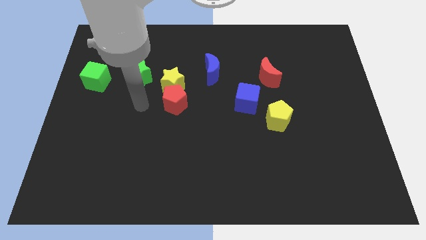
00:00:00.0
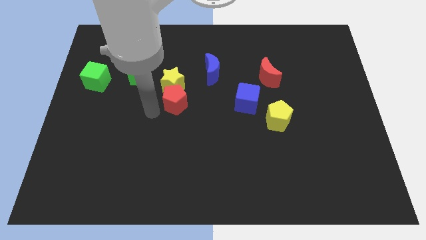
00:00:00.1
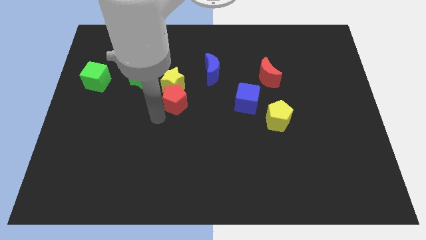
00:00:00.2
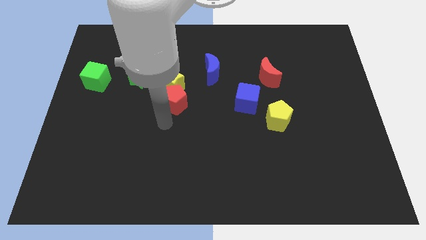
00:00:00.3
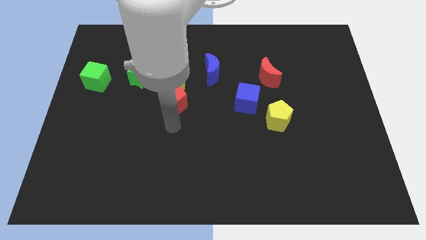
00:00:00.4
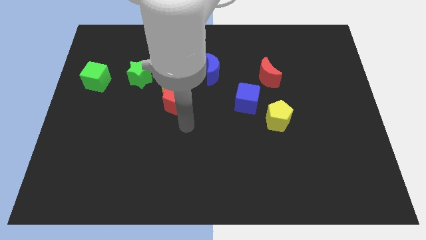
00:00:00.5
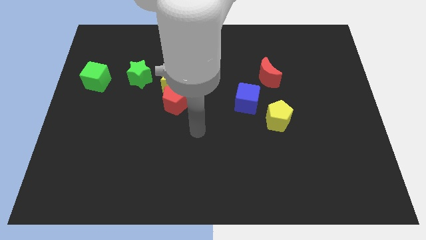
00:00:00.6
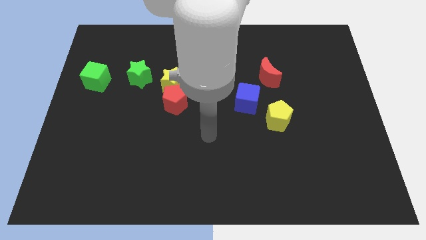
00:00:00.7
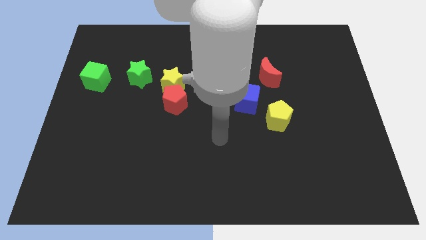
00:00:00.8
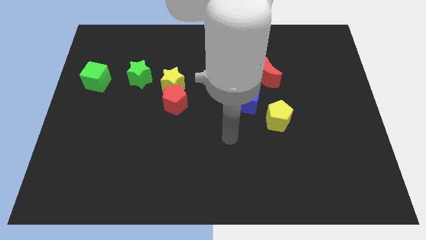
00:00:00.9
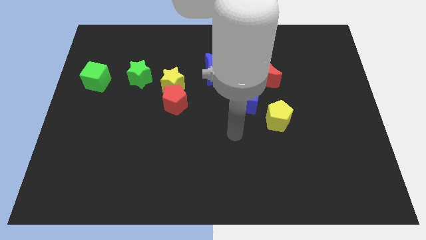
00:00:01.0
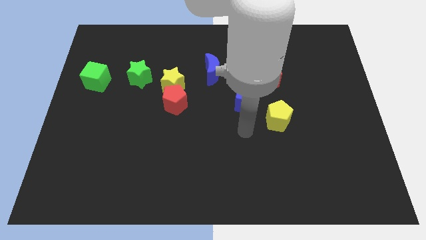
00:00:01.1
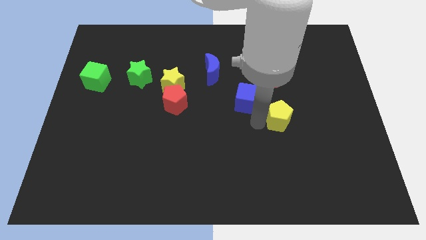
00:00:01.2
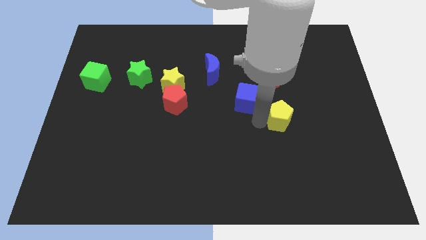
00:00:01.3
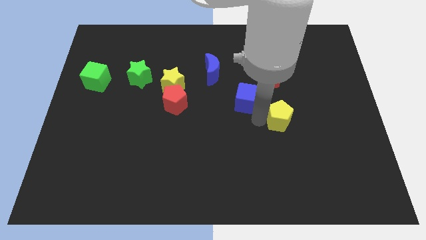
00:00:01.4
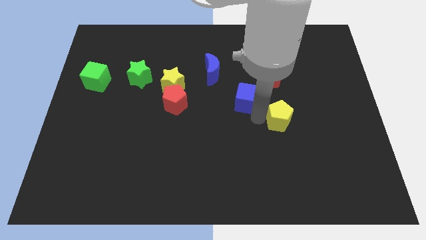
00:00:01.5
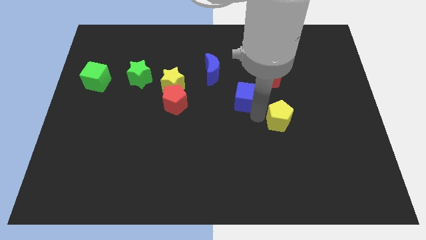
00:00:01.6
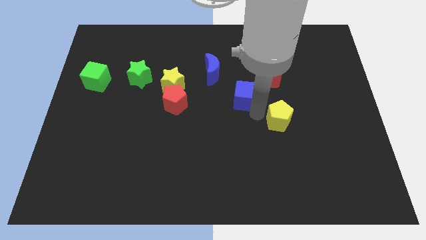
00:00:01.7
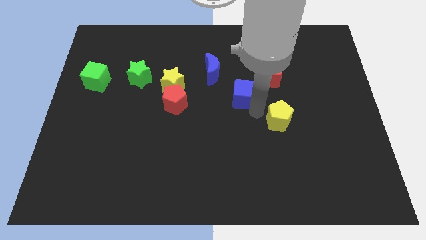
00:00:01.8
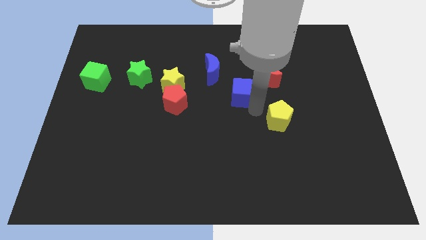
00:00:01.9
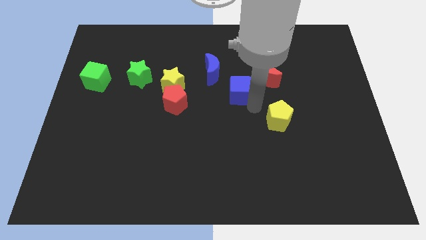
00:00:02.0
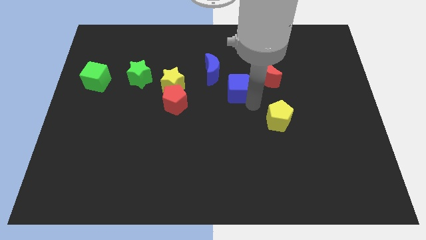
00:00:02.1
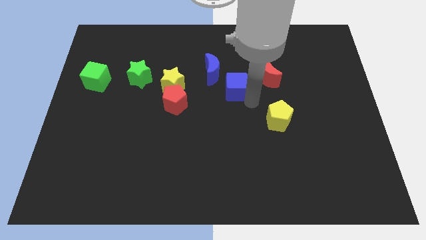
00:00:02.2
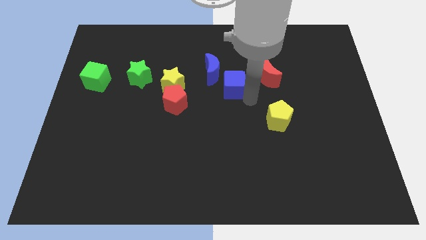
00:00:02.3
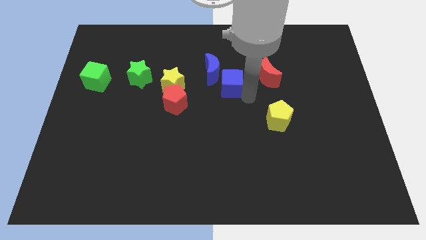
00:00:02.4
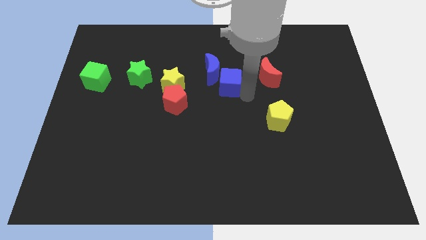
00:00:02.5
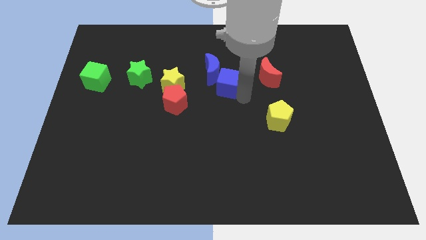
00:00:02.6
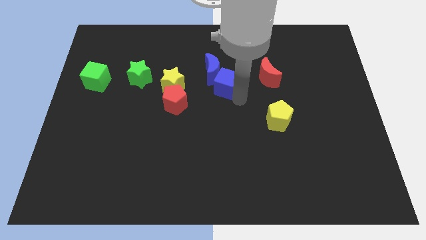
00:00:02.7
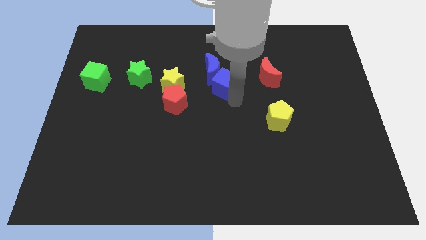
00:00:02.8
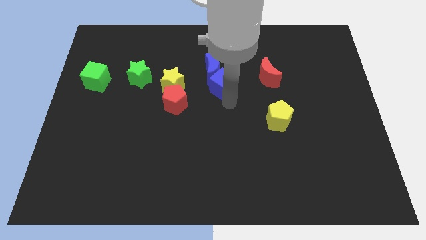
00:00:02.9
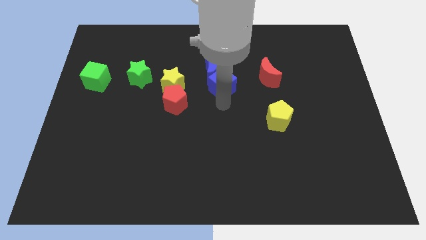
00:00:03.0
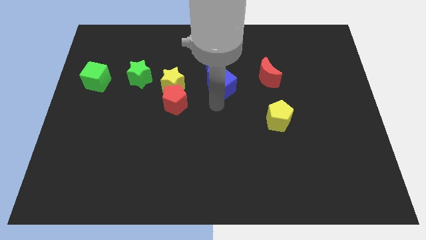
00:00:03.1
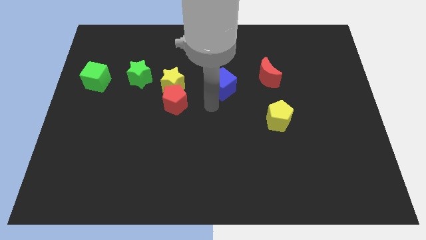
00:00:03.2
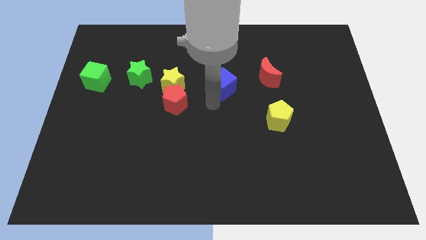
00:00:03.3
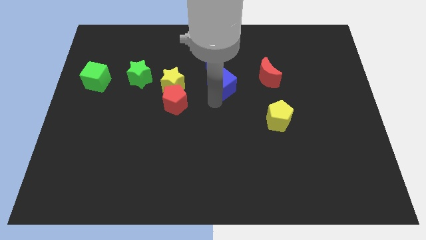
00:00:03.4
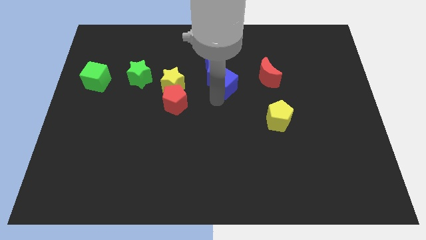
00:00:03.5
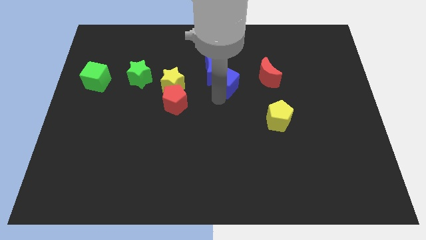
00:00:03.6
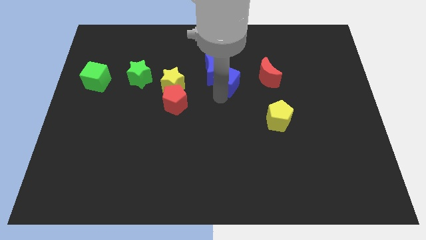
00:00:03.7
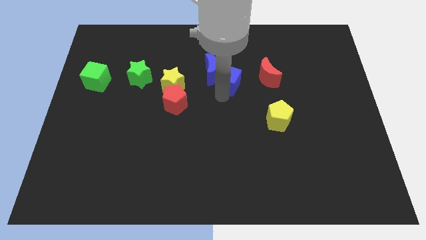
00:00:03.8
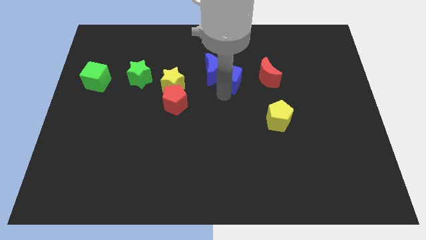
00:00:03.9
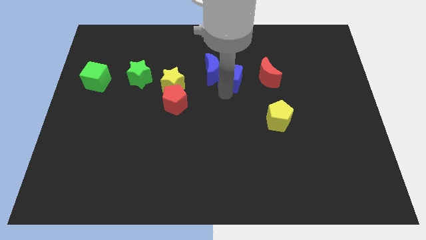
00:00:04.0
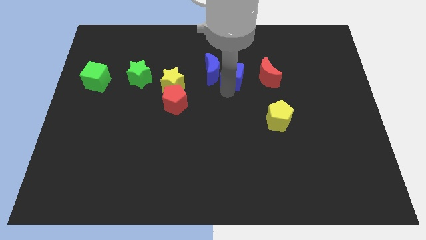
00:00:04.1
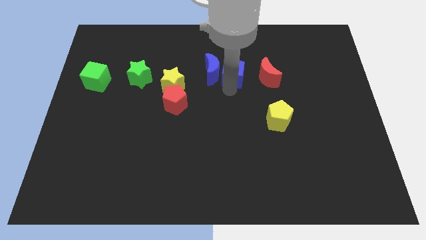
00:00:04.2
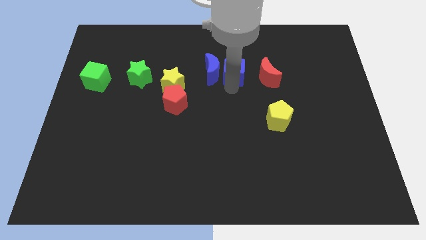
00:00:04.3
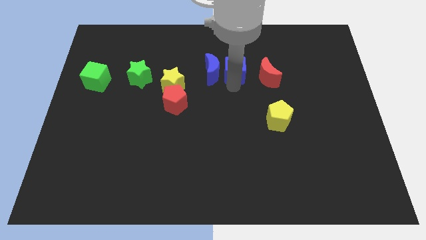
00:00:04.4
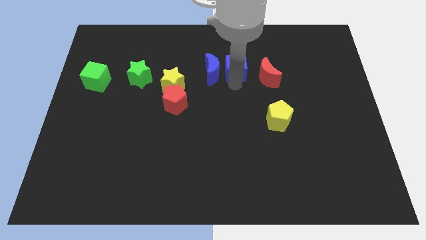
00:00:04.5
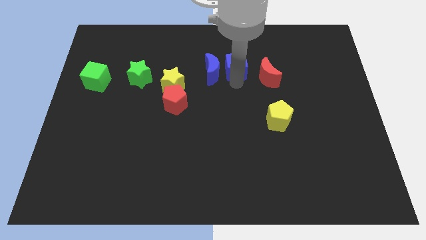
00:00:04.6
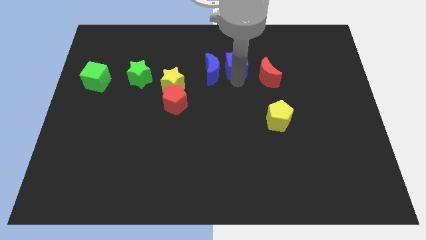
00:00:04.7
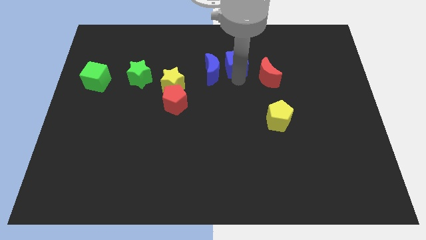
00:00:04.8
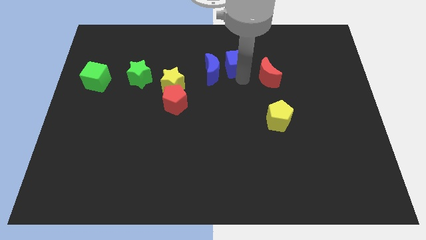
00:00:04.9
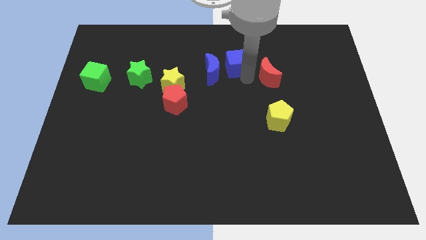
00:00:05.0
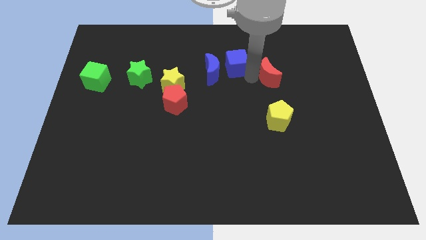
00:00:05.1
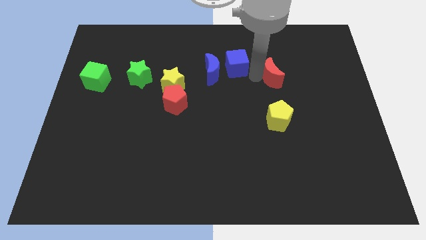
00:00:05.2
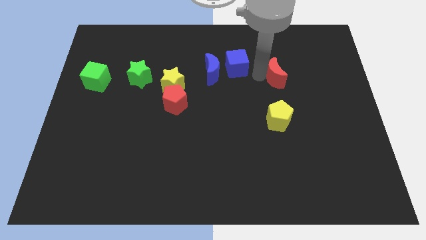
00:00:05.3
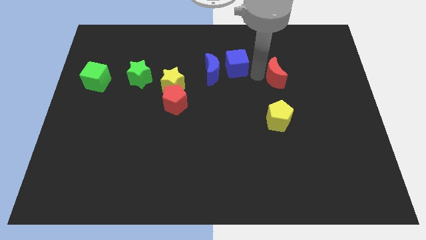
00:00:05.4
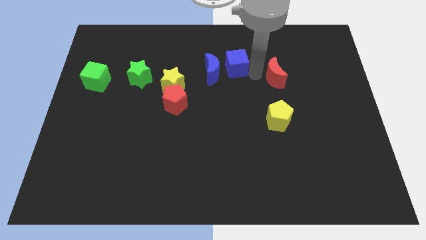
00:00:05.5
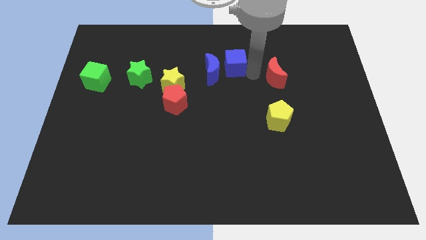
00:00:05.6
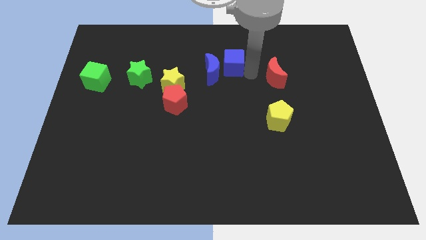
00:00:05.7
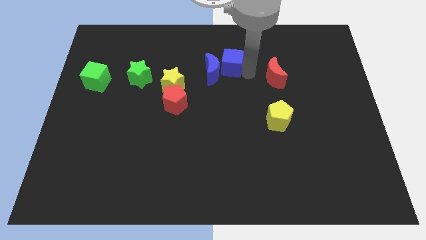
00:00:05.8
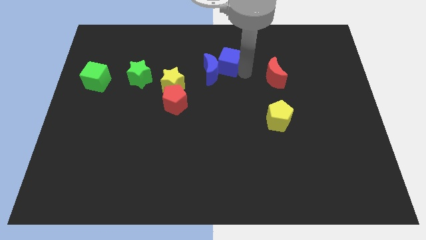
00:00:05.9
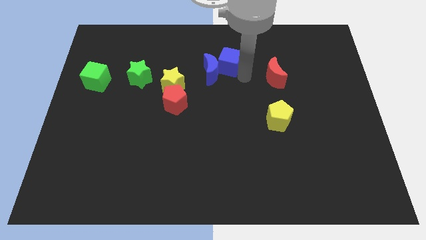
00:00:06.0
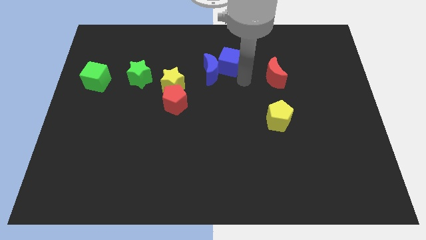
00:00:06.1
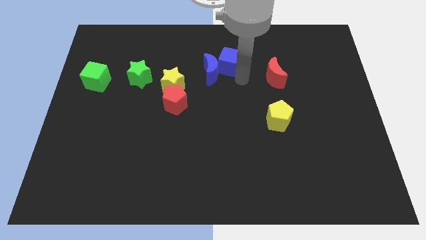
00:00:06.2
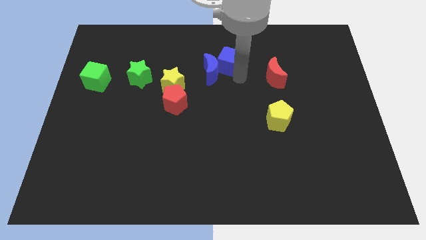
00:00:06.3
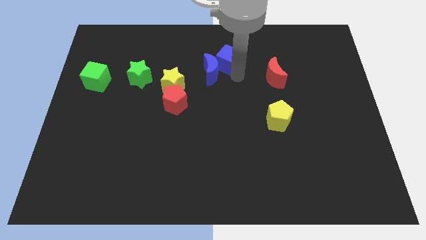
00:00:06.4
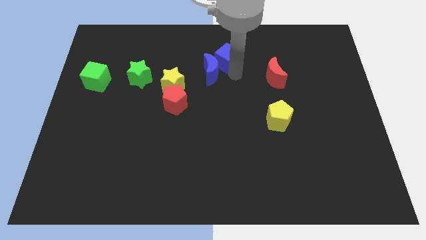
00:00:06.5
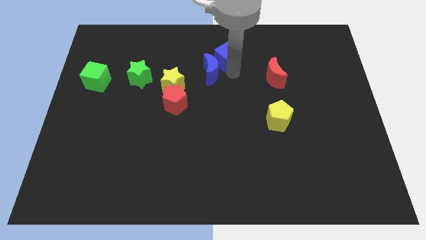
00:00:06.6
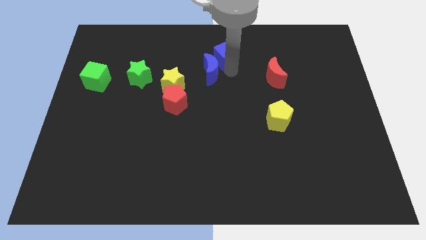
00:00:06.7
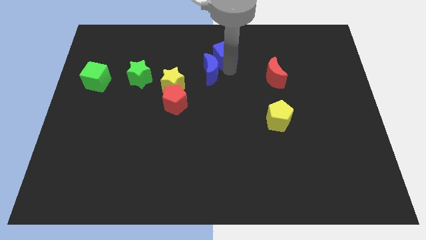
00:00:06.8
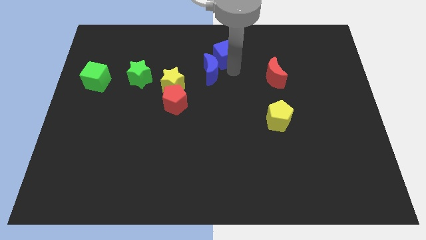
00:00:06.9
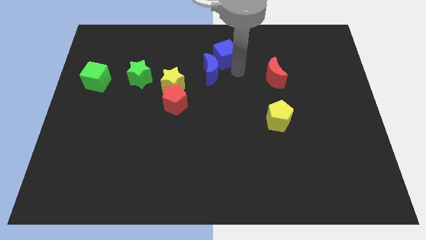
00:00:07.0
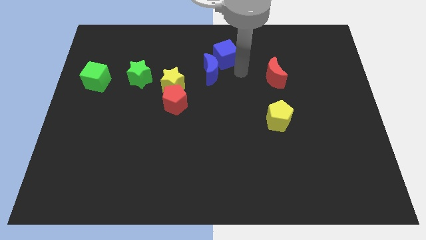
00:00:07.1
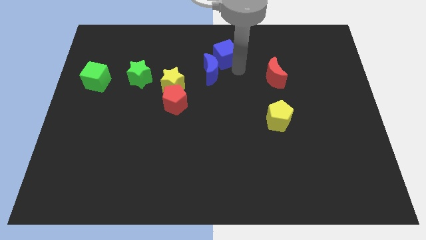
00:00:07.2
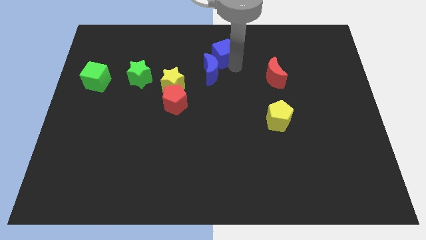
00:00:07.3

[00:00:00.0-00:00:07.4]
slide the blue cube to the top side
